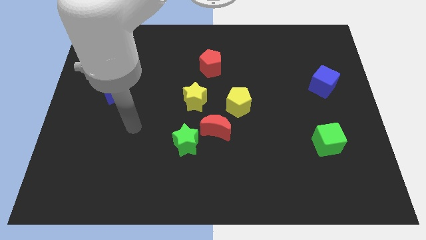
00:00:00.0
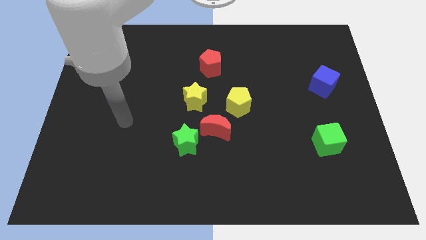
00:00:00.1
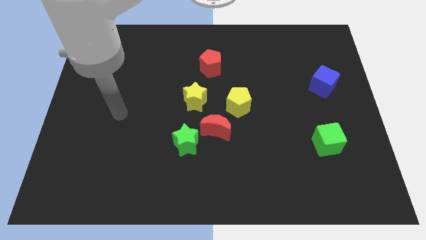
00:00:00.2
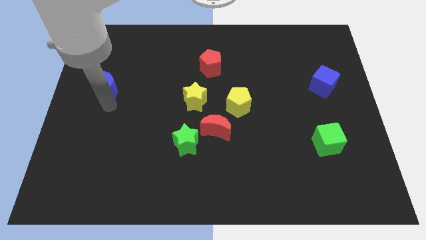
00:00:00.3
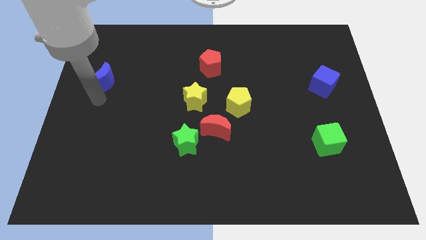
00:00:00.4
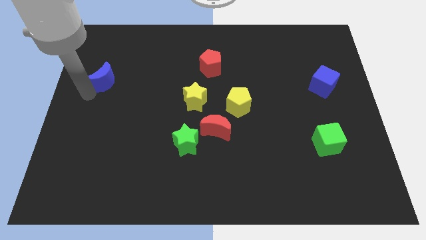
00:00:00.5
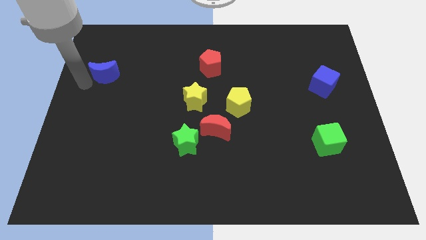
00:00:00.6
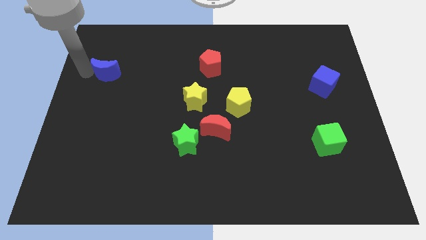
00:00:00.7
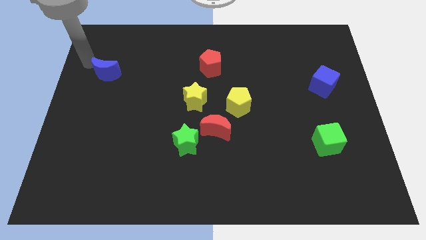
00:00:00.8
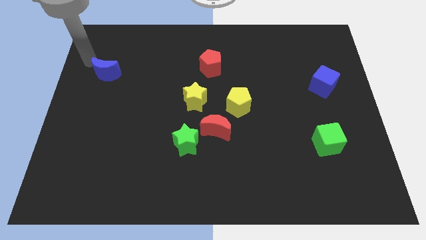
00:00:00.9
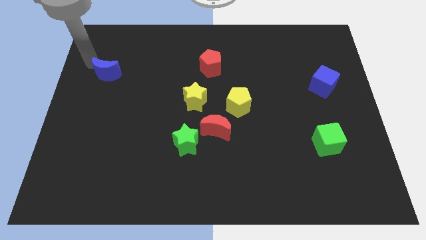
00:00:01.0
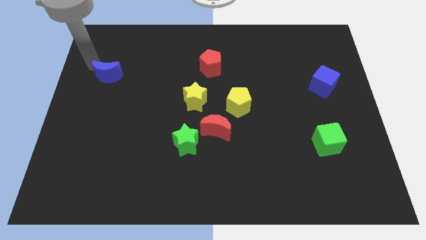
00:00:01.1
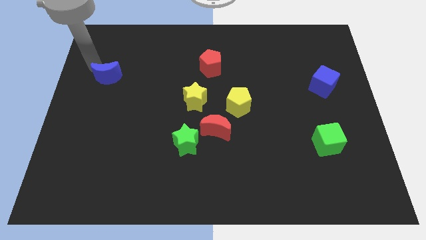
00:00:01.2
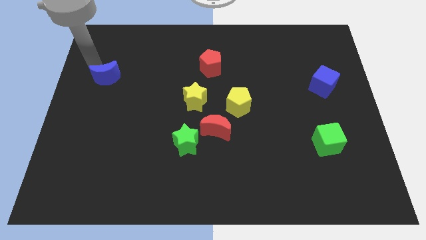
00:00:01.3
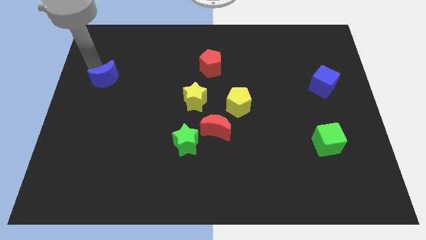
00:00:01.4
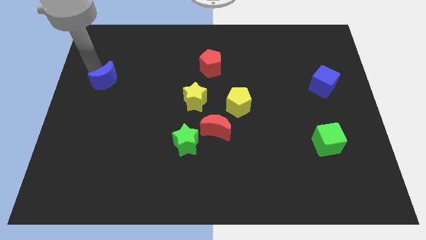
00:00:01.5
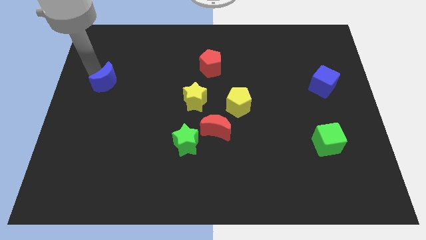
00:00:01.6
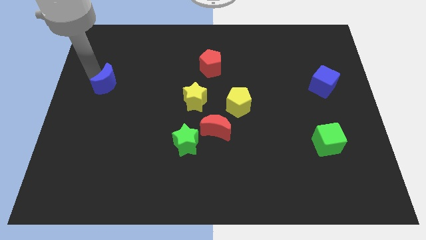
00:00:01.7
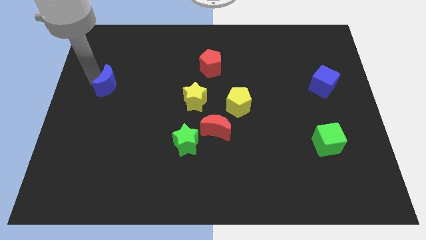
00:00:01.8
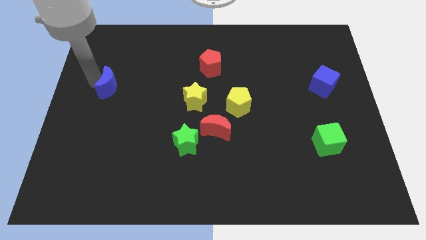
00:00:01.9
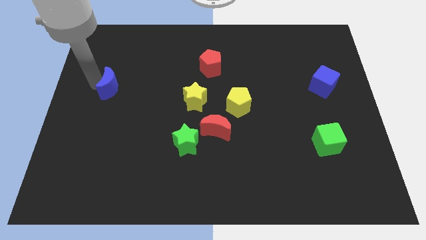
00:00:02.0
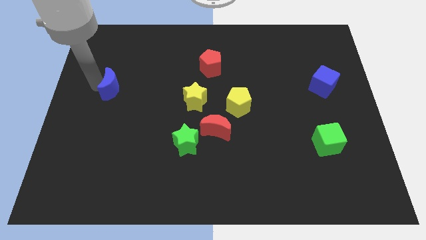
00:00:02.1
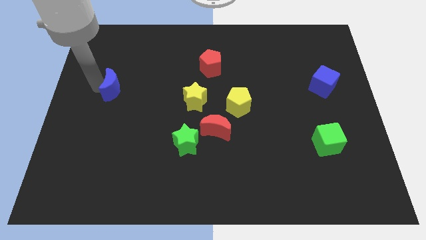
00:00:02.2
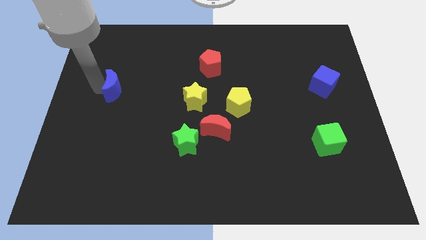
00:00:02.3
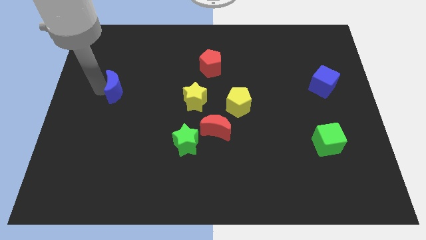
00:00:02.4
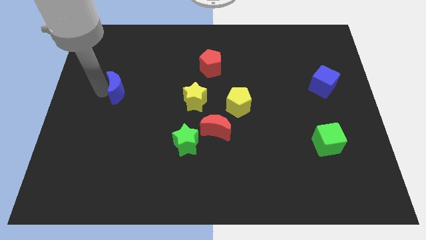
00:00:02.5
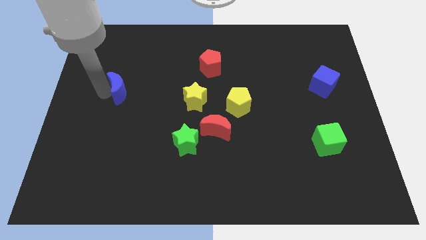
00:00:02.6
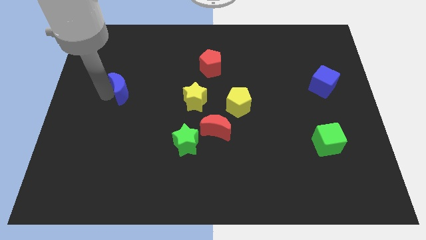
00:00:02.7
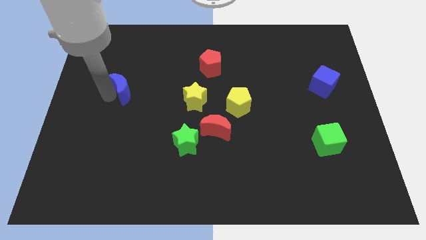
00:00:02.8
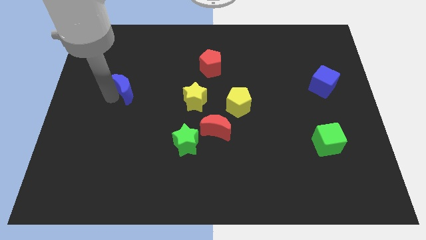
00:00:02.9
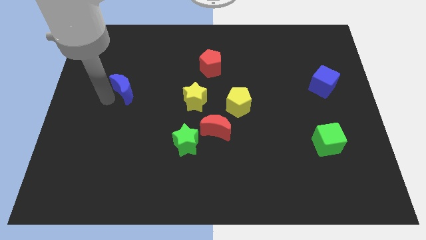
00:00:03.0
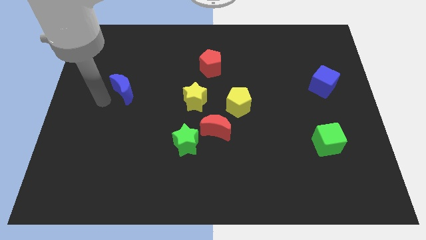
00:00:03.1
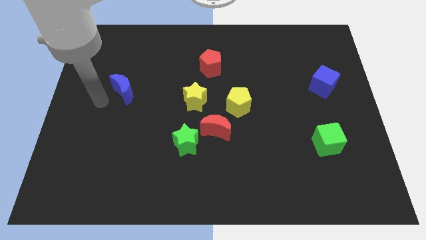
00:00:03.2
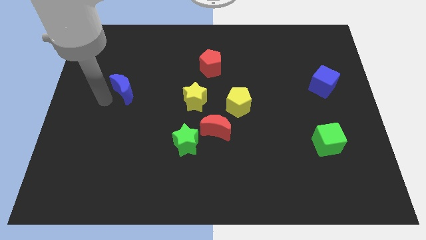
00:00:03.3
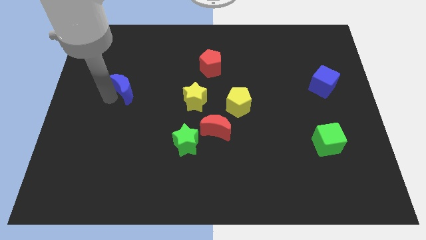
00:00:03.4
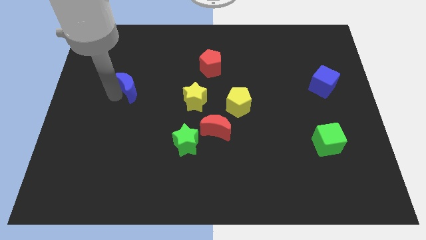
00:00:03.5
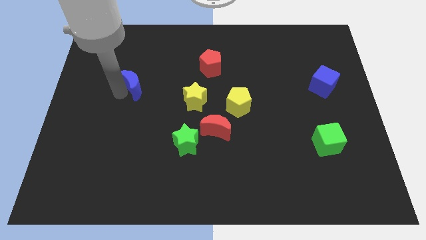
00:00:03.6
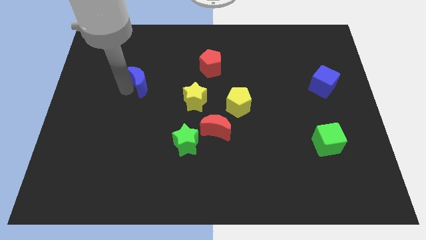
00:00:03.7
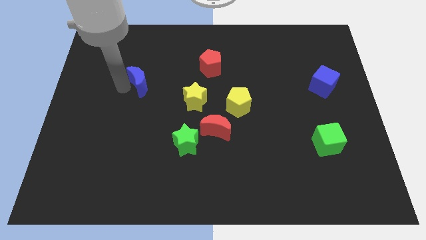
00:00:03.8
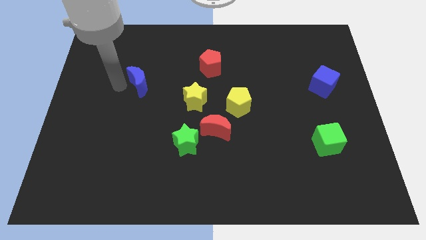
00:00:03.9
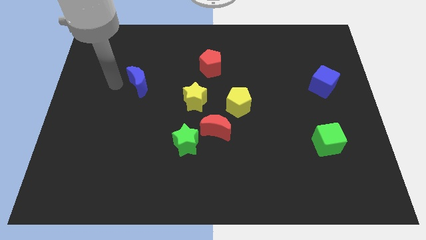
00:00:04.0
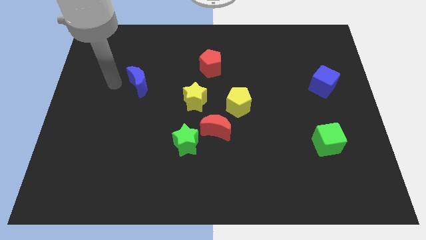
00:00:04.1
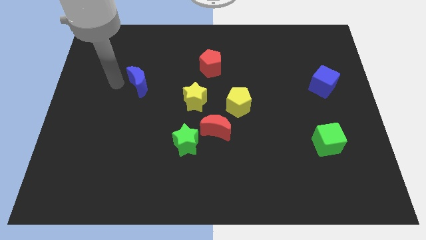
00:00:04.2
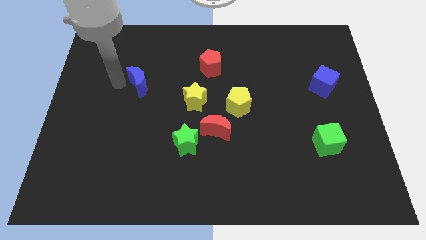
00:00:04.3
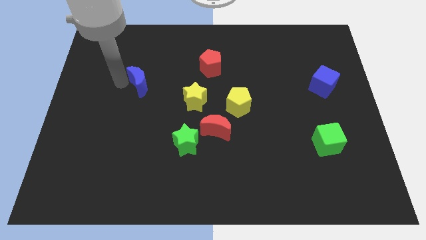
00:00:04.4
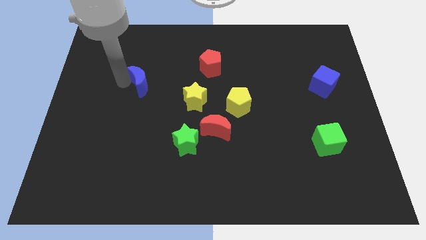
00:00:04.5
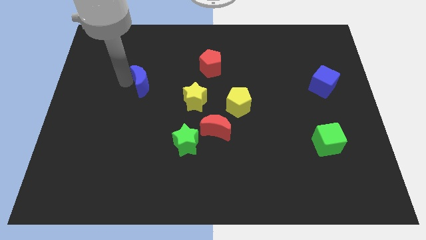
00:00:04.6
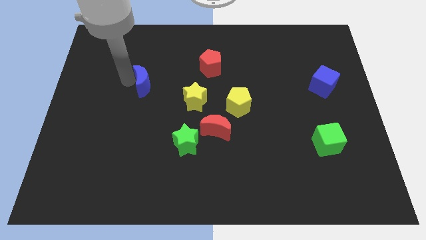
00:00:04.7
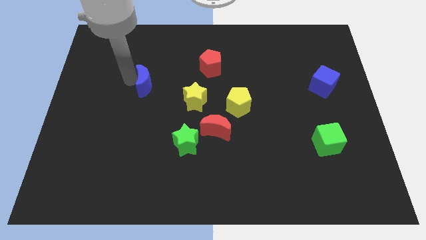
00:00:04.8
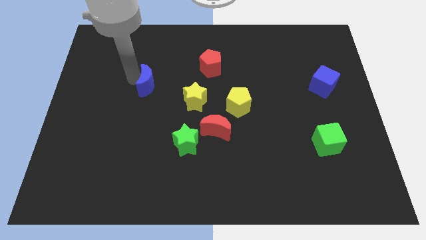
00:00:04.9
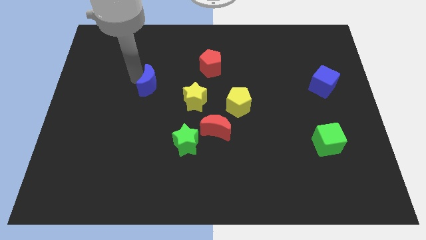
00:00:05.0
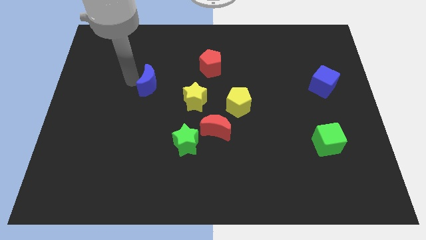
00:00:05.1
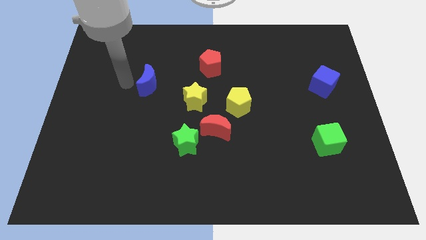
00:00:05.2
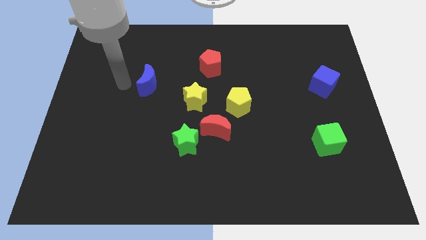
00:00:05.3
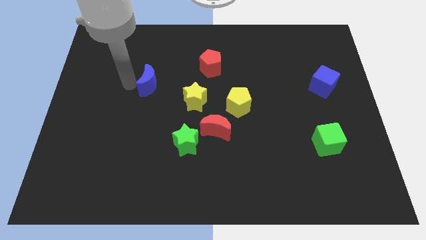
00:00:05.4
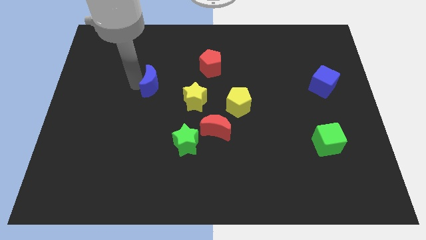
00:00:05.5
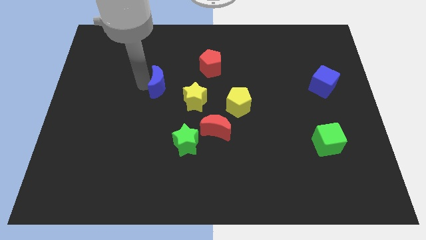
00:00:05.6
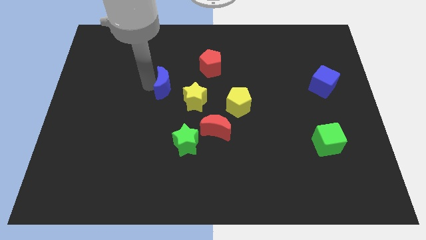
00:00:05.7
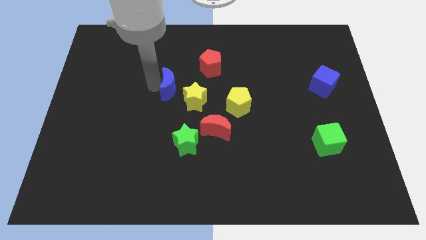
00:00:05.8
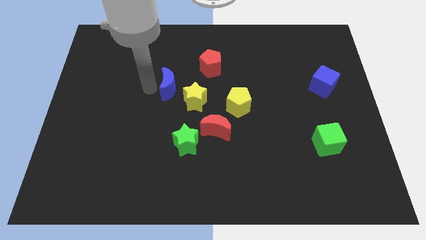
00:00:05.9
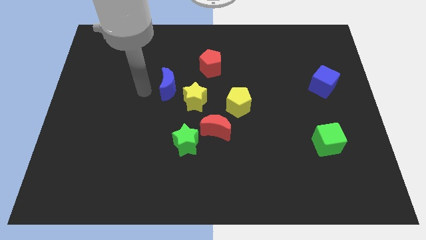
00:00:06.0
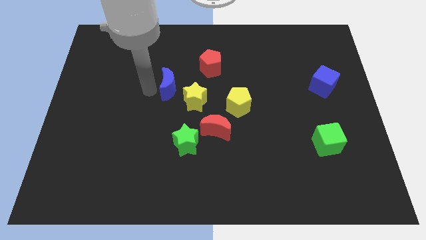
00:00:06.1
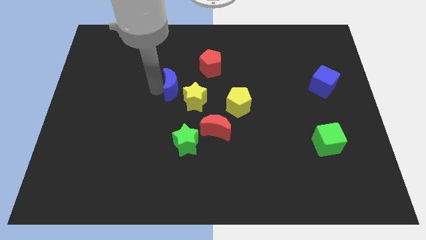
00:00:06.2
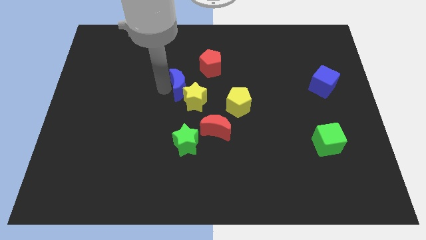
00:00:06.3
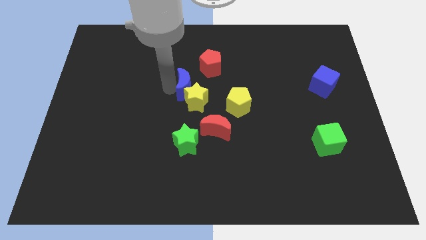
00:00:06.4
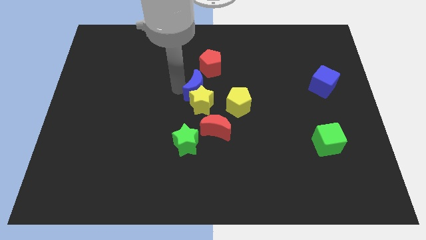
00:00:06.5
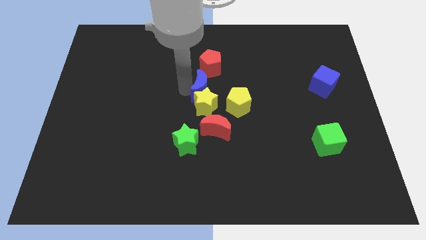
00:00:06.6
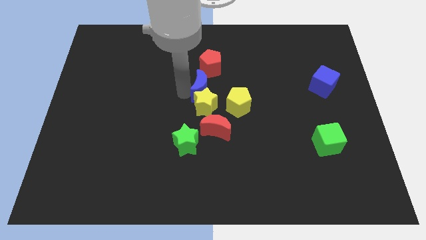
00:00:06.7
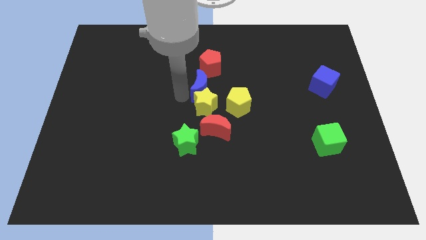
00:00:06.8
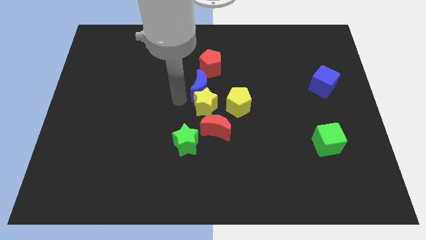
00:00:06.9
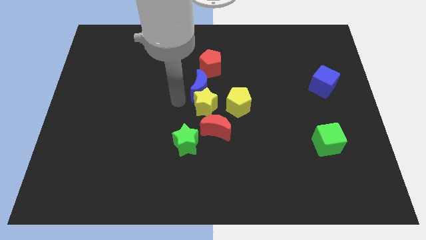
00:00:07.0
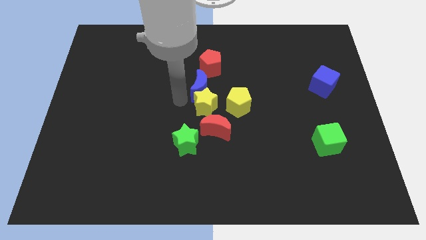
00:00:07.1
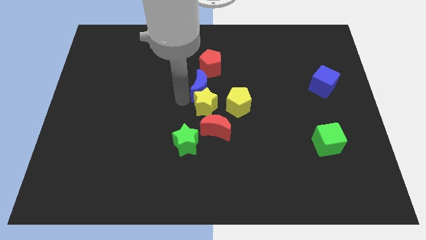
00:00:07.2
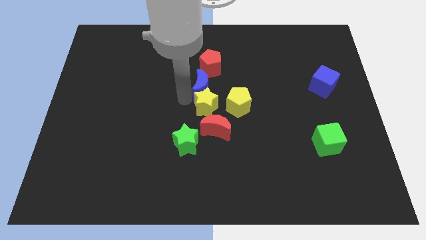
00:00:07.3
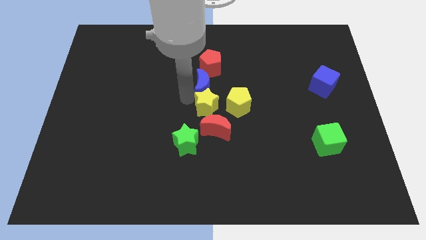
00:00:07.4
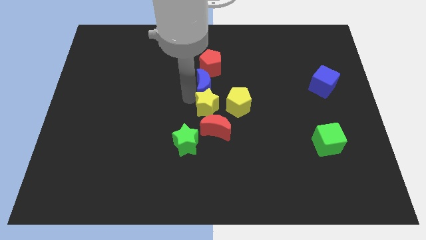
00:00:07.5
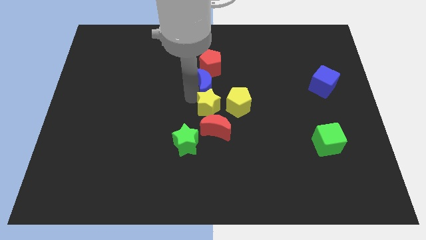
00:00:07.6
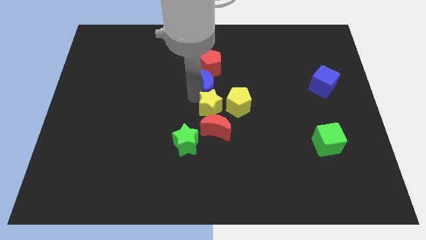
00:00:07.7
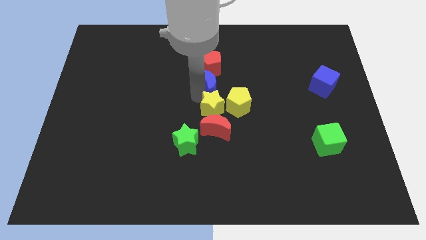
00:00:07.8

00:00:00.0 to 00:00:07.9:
put the blue moon diagonally down and to the right of the red pentagon
